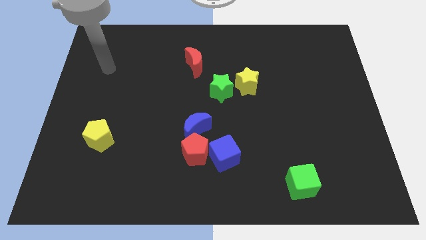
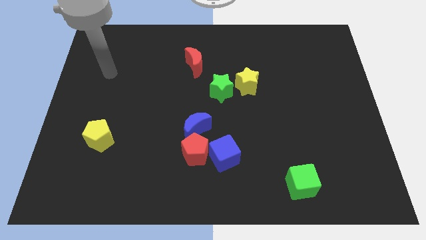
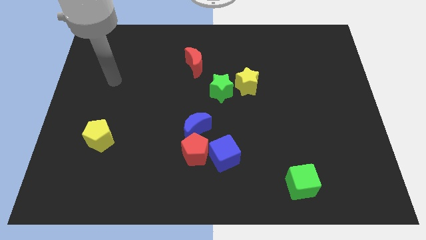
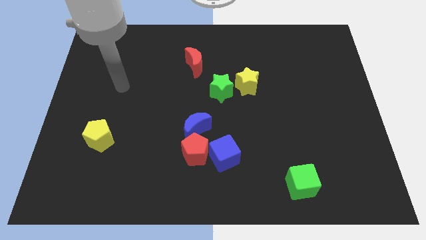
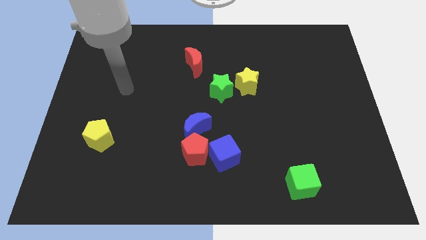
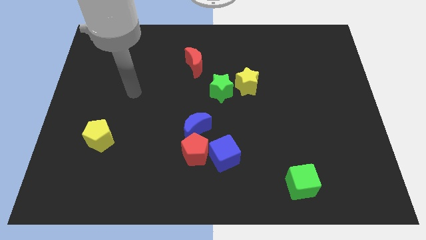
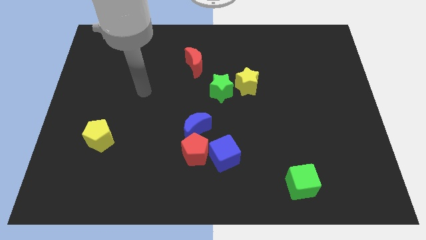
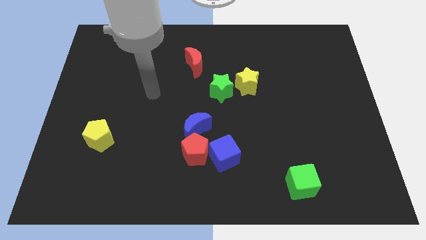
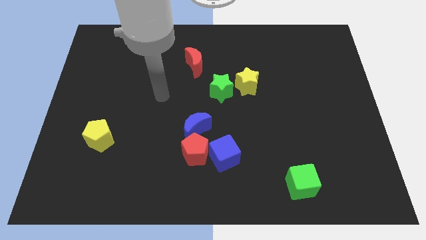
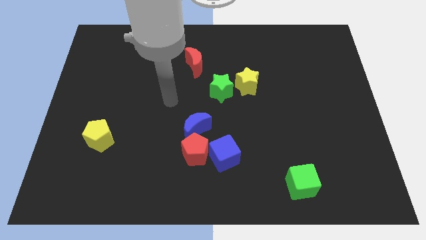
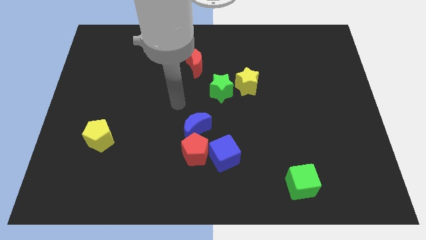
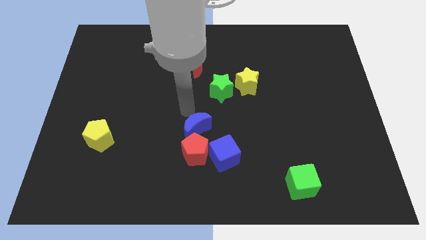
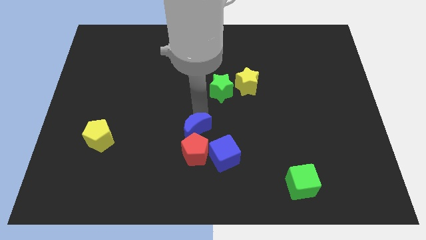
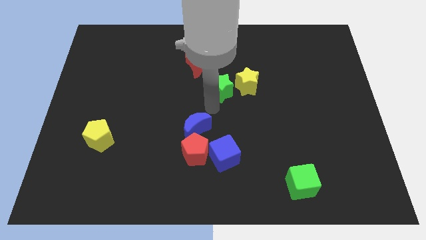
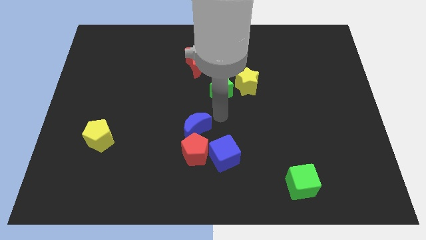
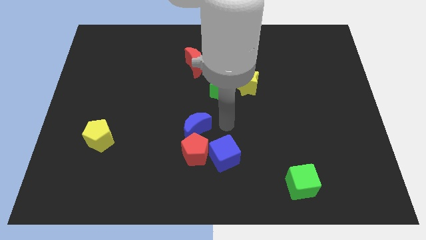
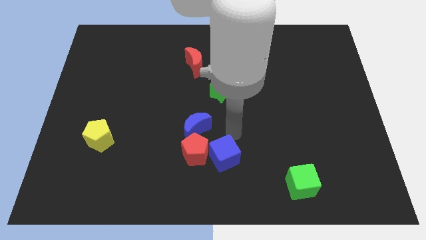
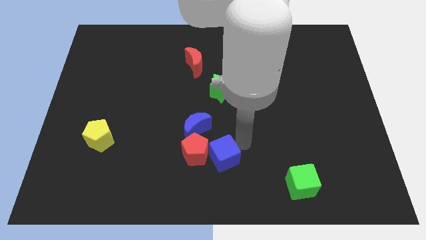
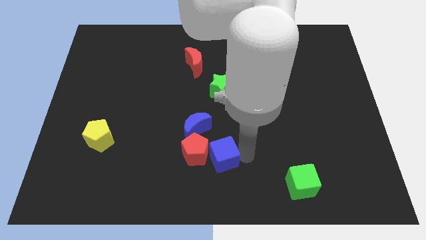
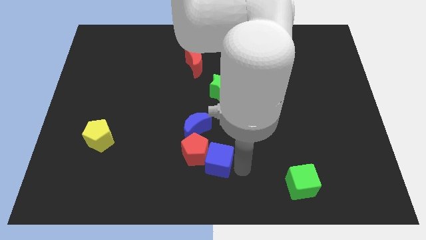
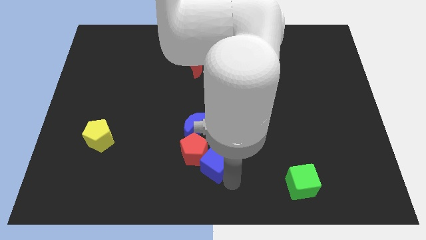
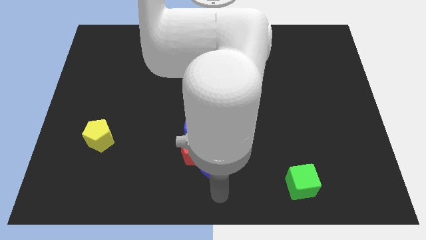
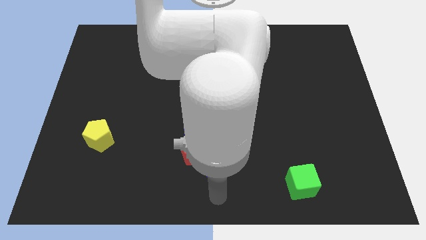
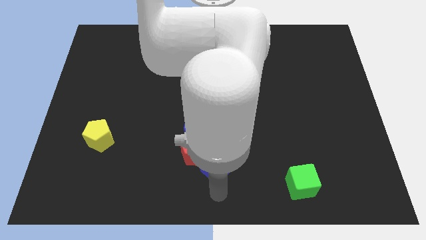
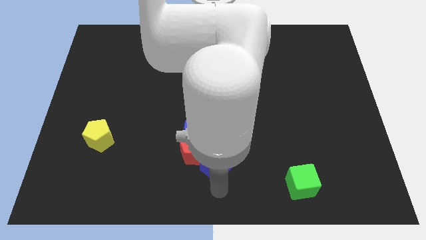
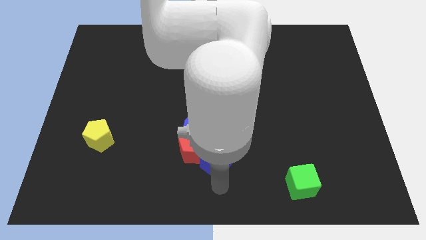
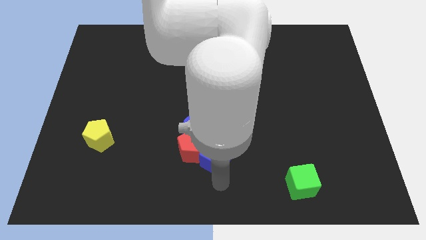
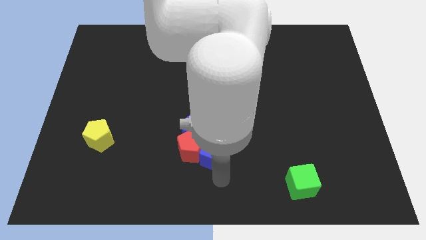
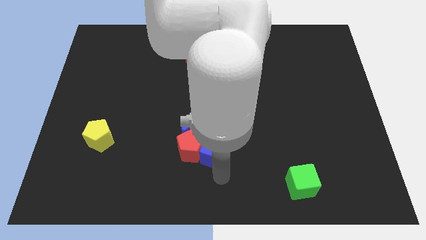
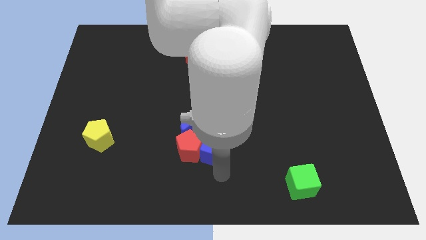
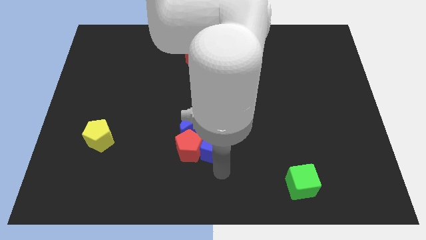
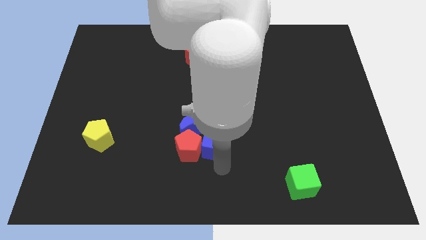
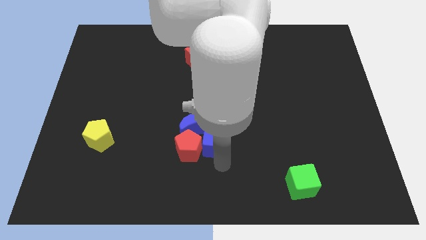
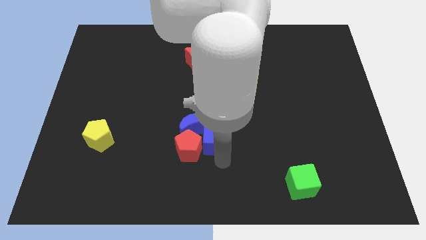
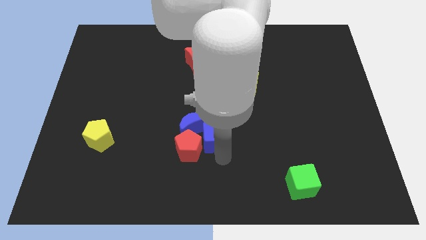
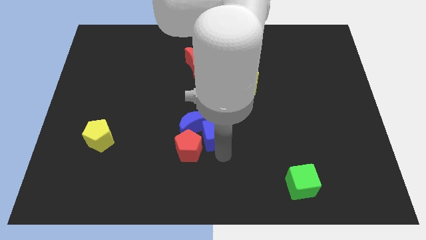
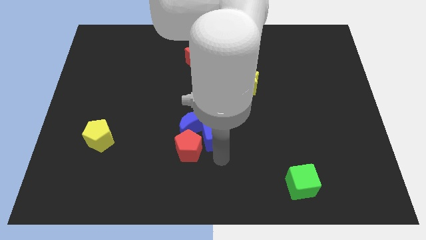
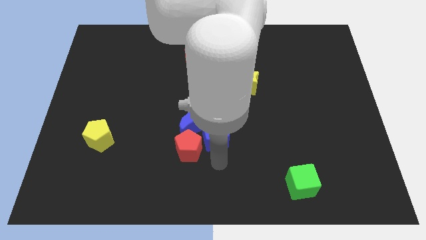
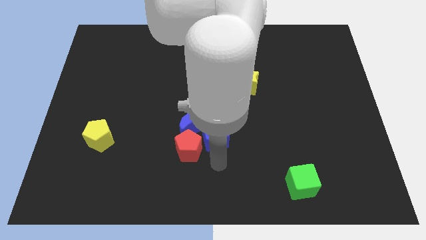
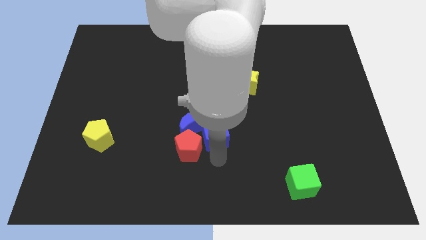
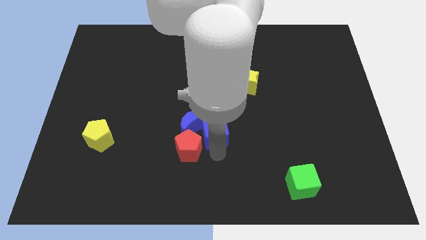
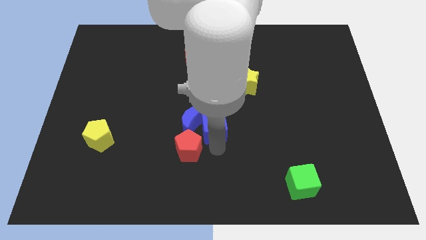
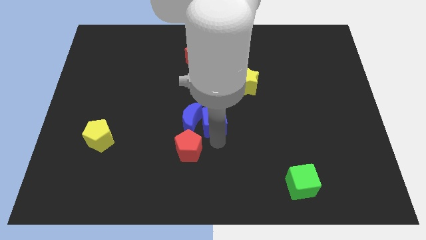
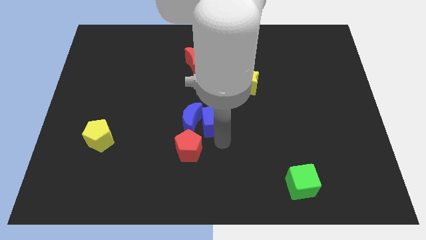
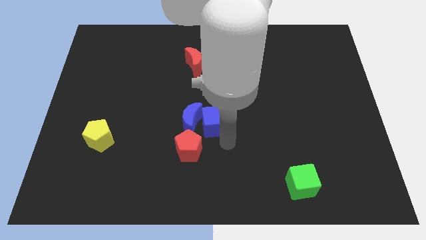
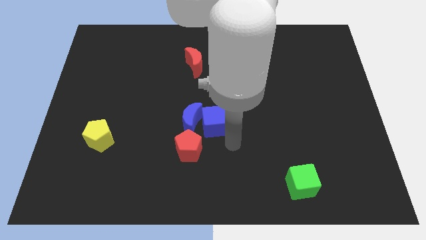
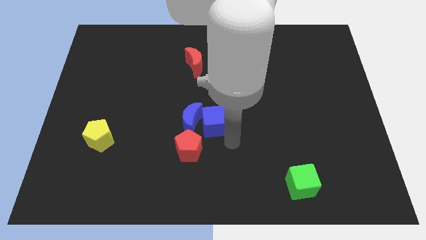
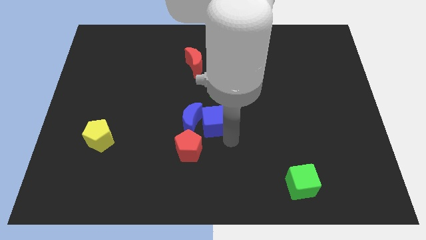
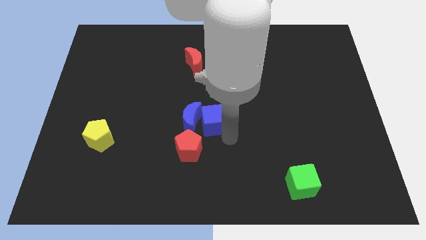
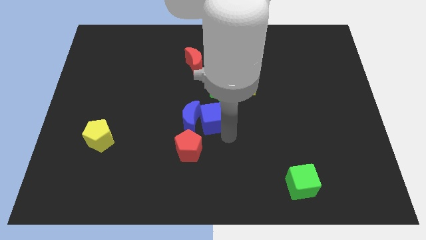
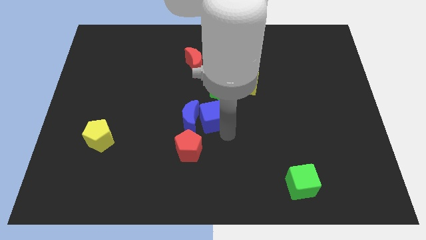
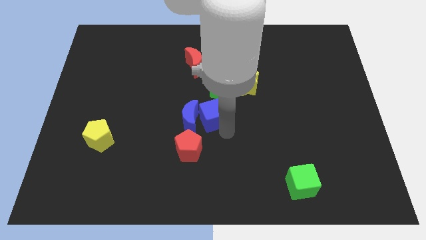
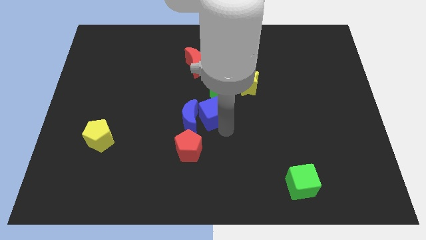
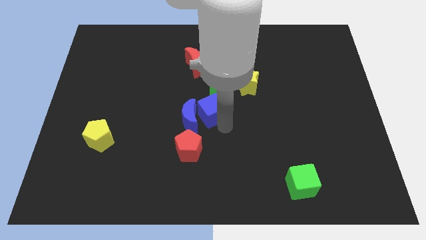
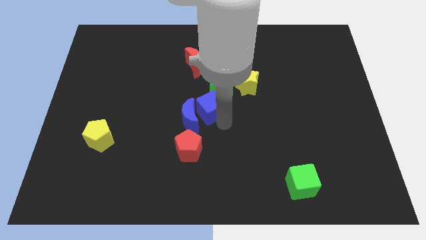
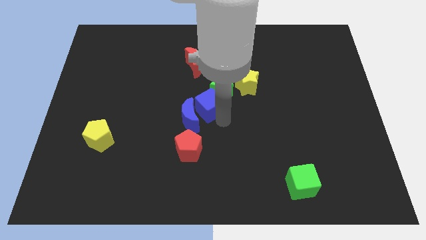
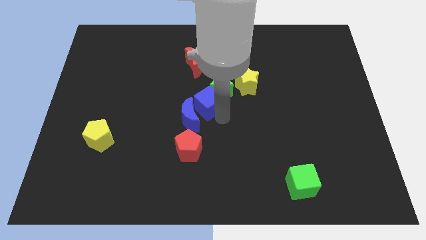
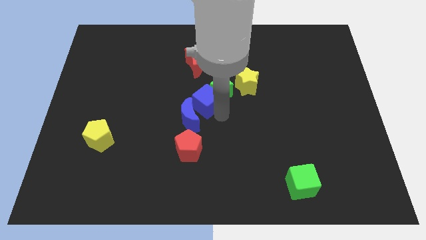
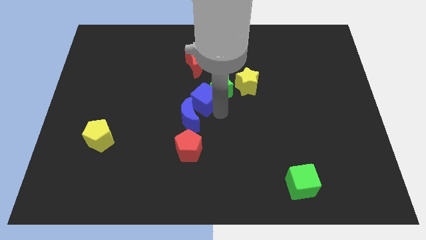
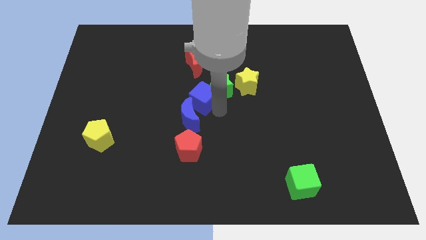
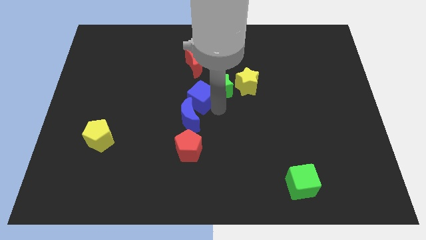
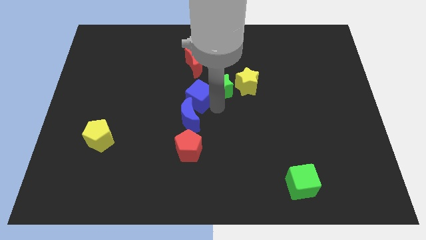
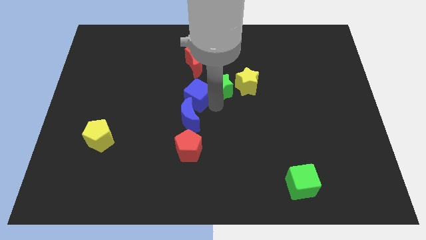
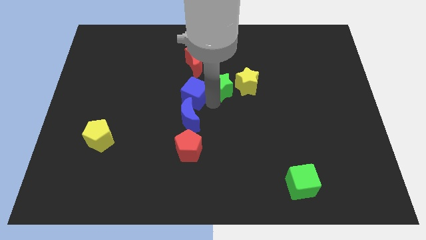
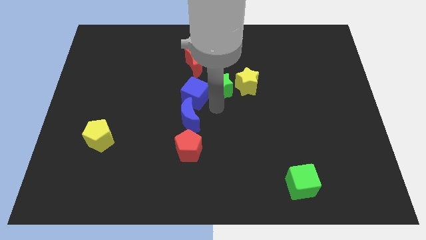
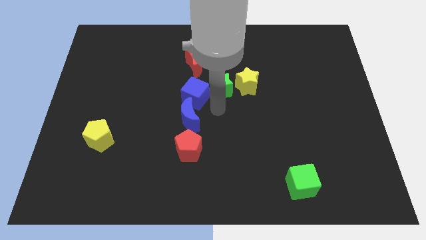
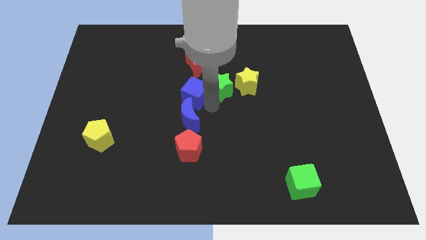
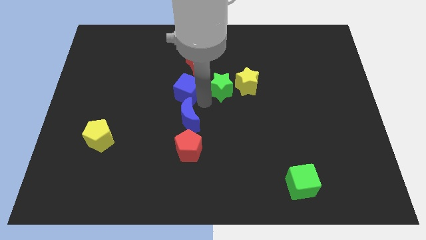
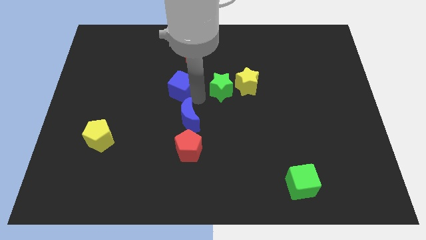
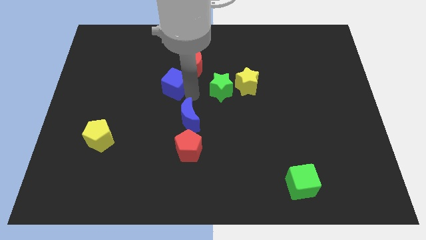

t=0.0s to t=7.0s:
slide the blue cube diagonally upwards and left

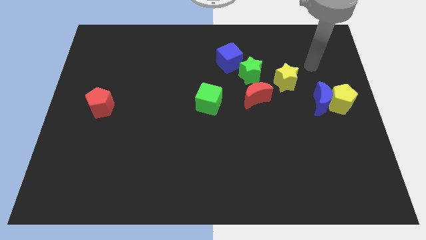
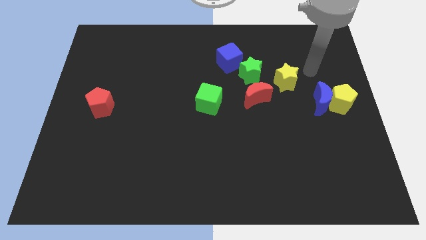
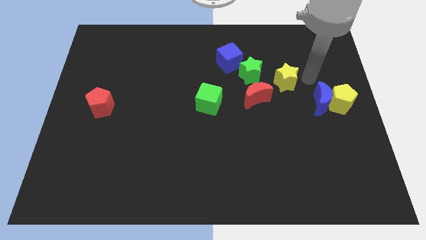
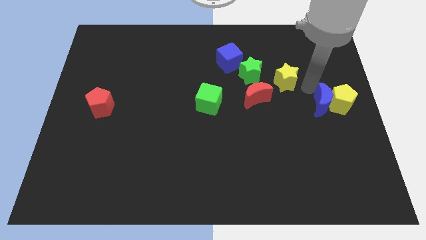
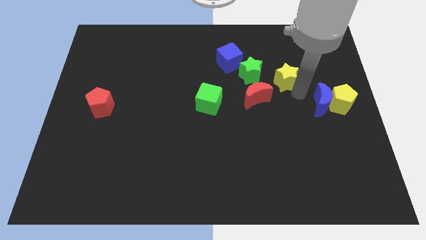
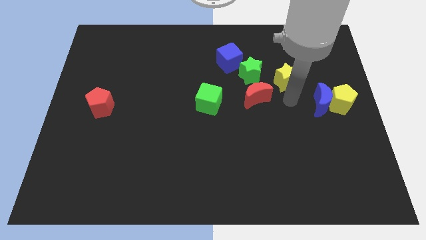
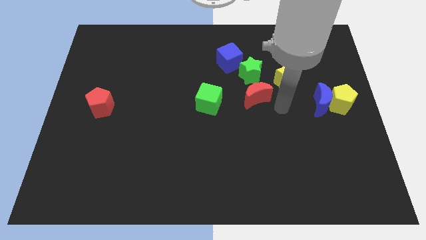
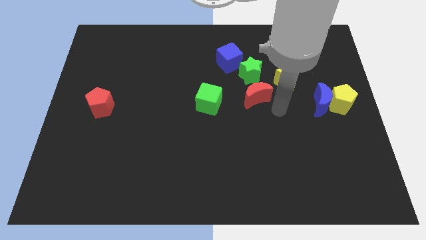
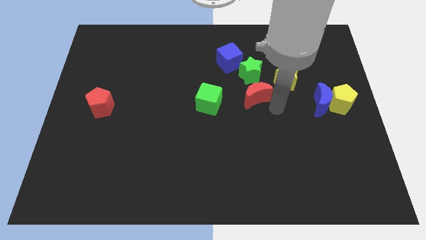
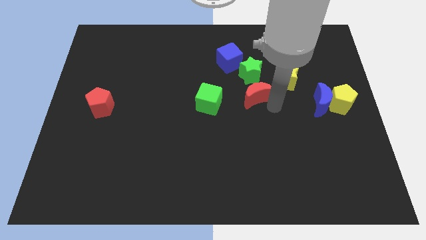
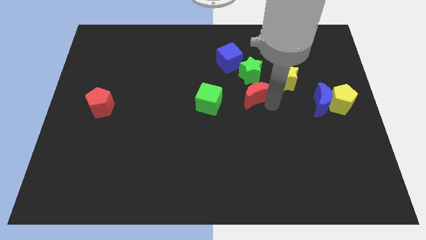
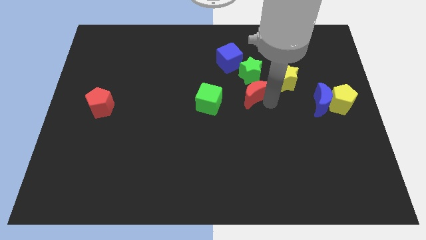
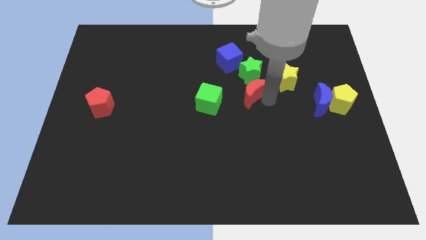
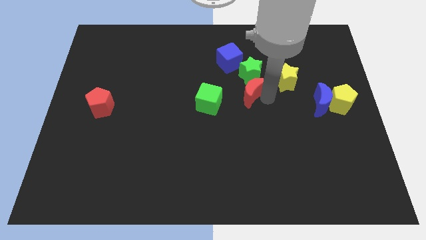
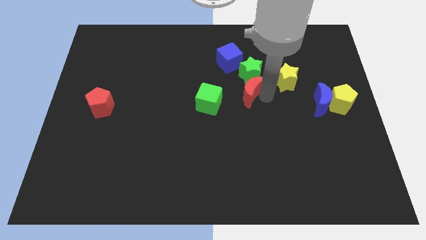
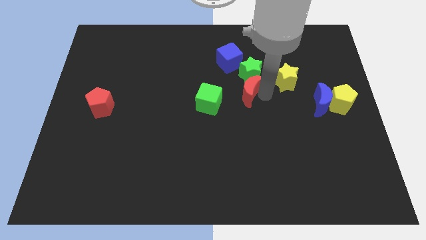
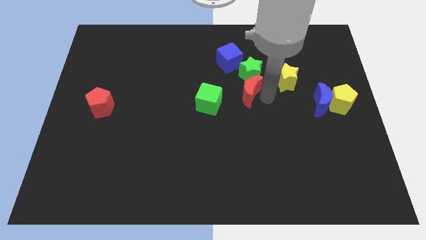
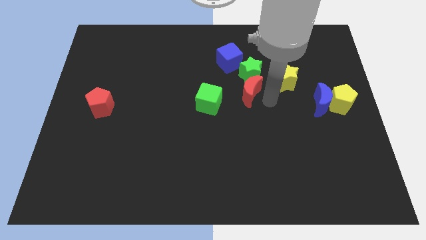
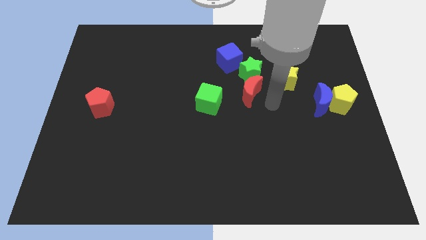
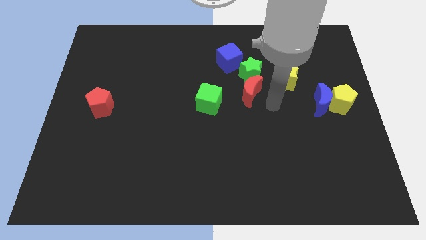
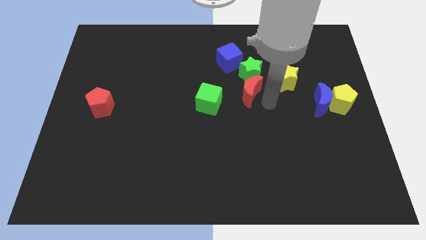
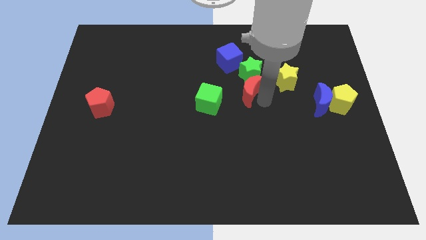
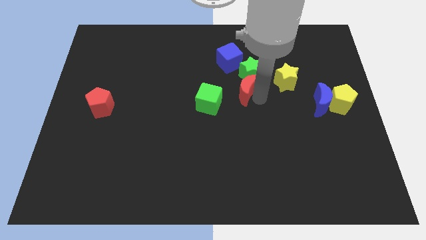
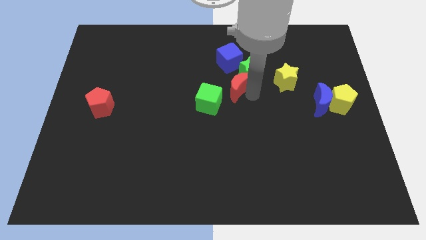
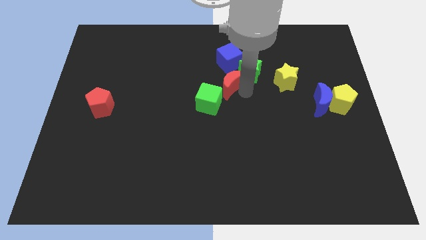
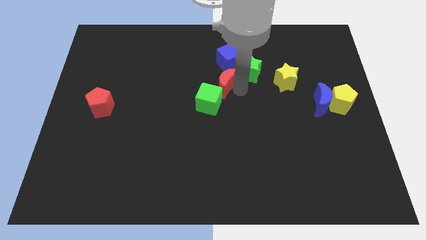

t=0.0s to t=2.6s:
move the red moon upwards and then left a bit
